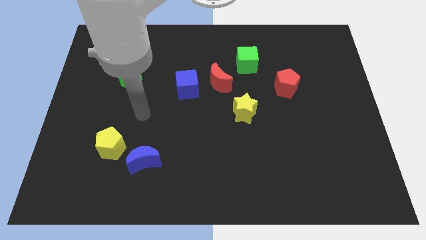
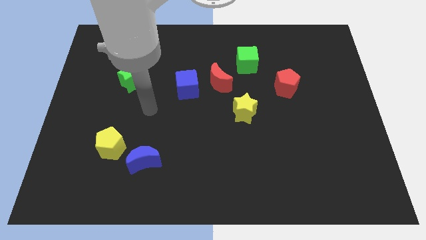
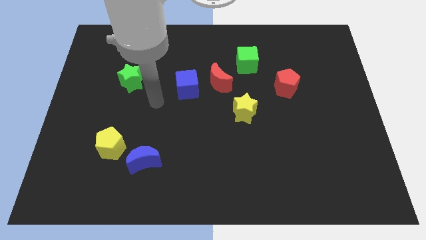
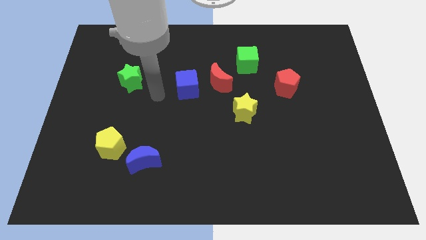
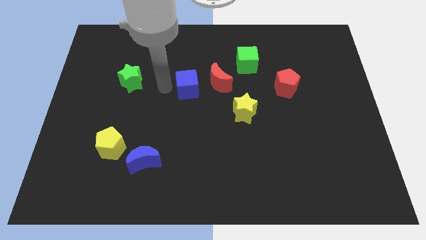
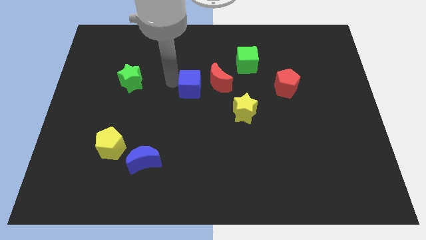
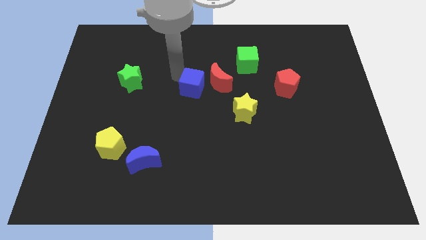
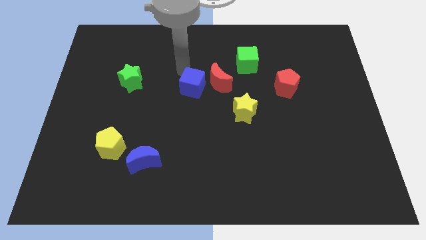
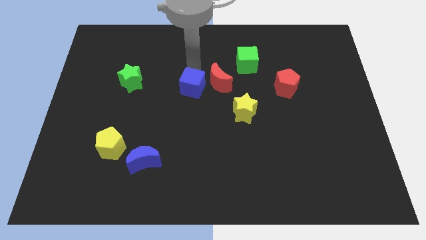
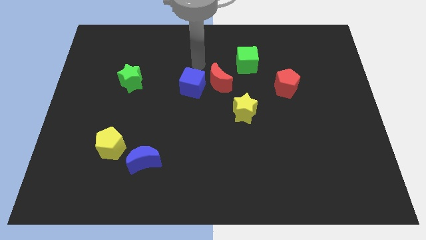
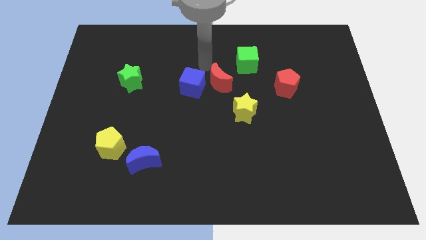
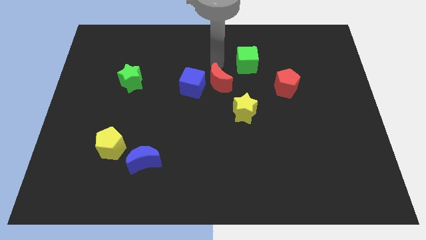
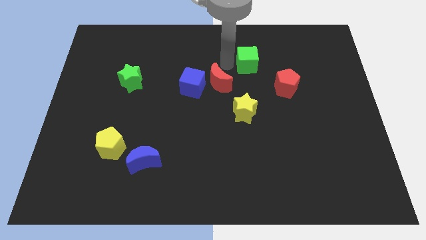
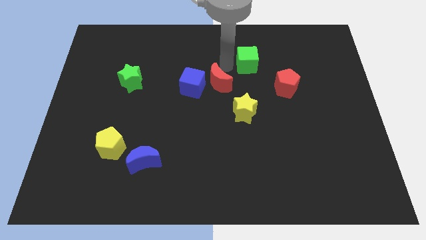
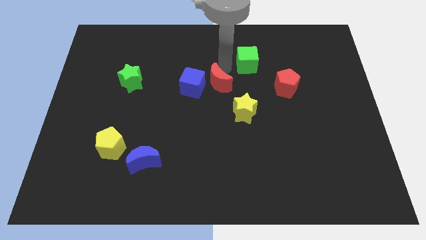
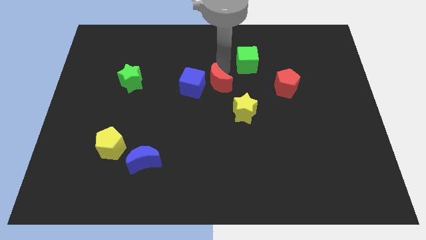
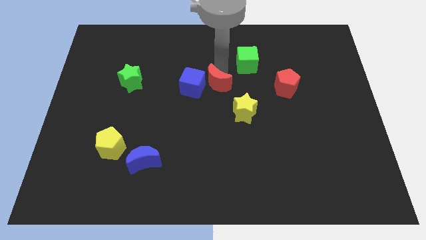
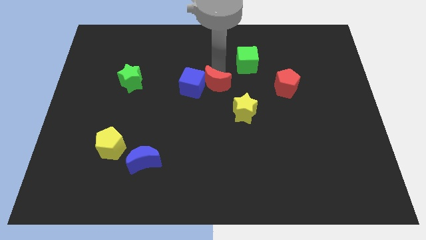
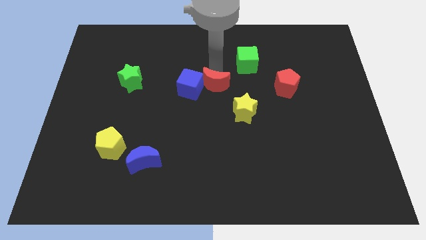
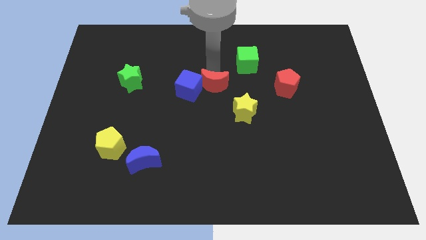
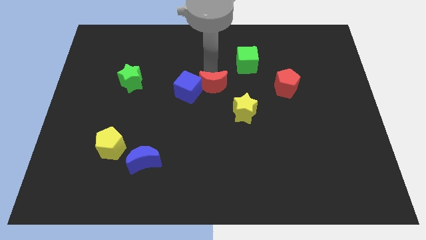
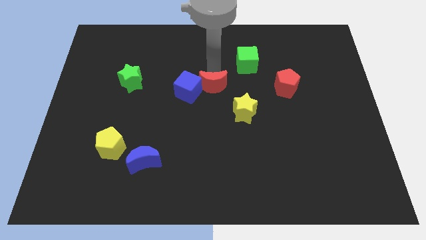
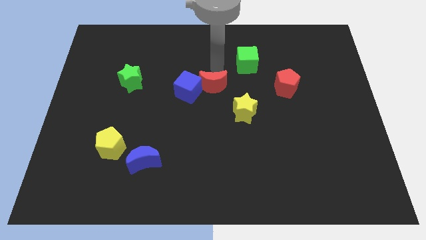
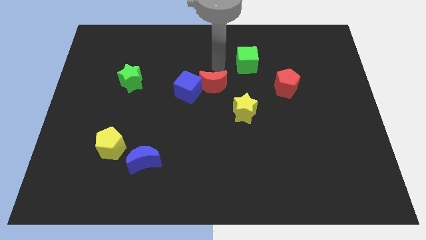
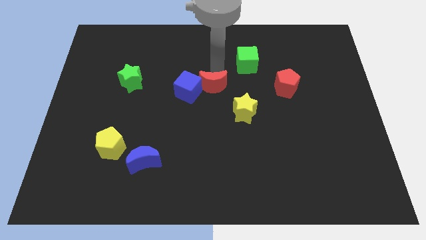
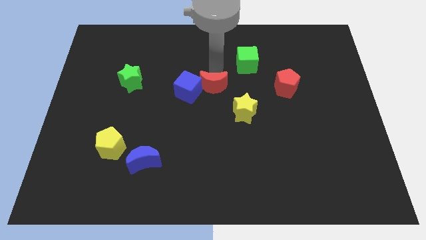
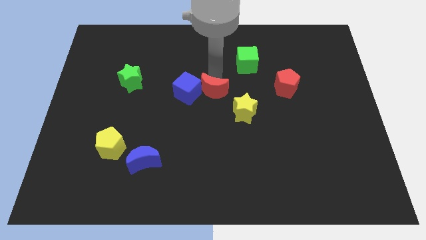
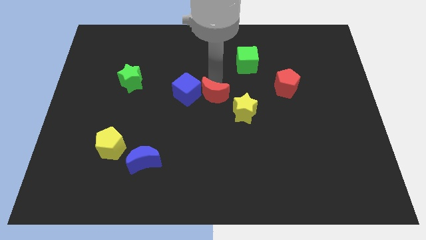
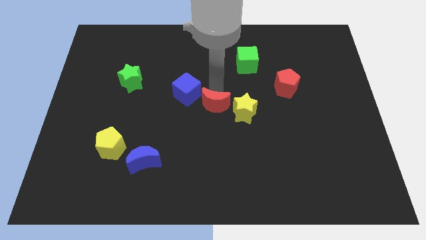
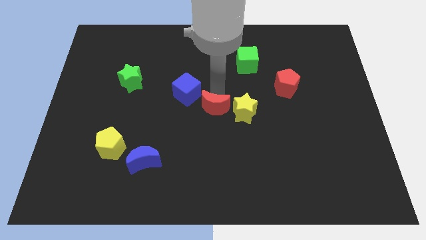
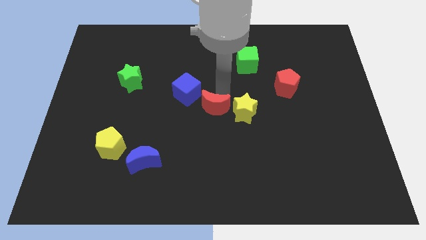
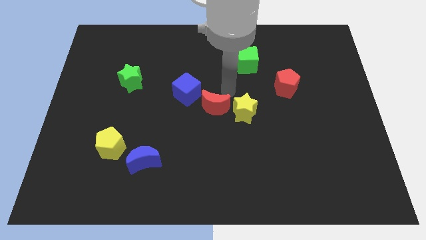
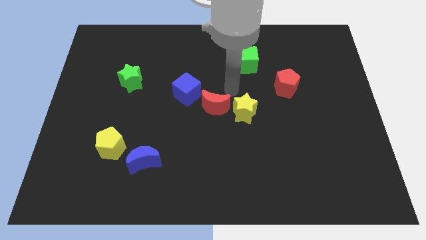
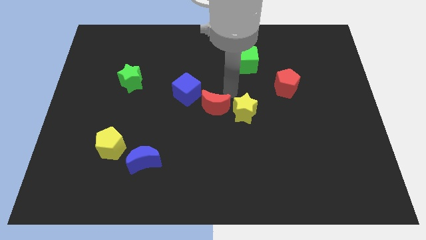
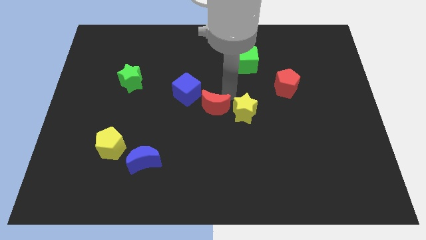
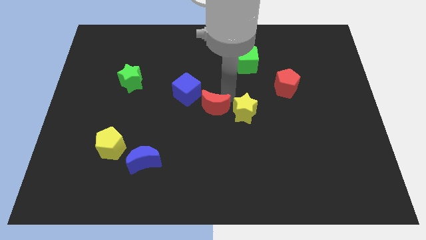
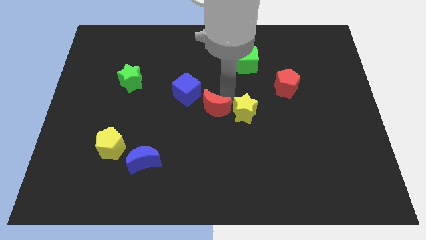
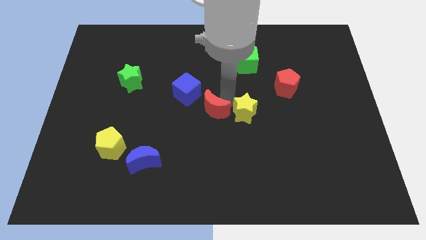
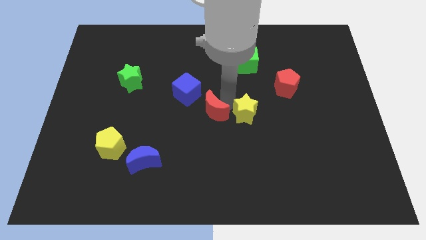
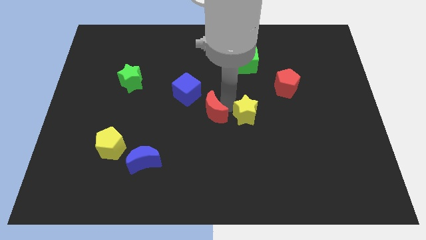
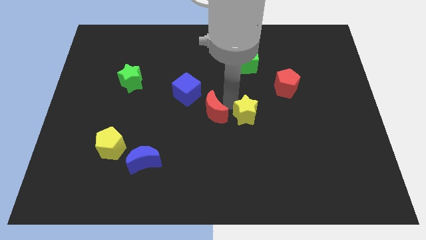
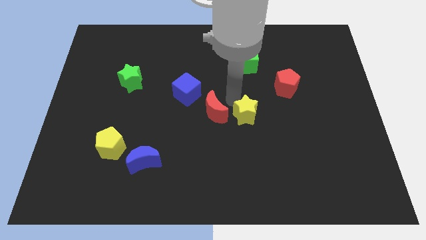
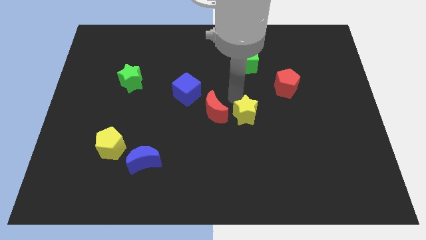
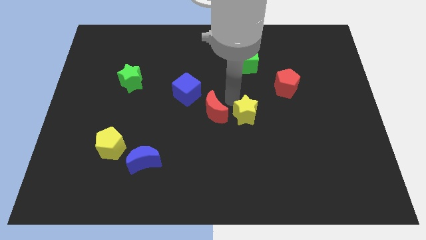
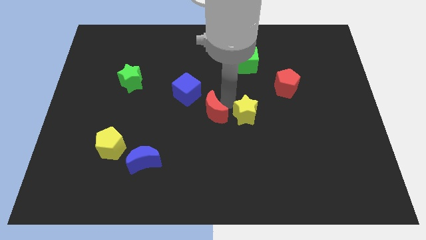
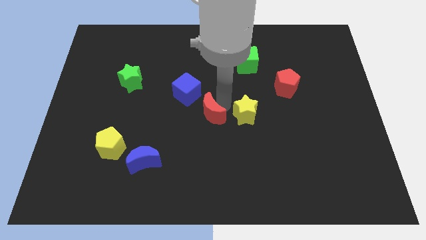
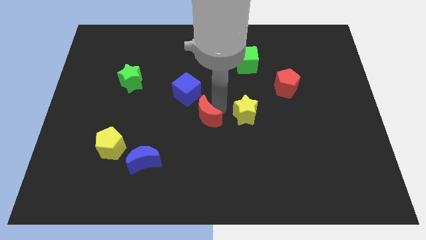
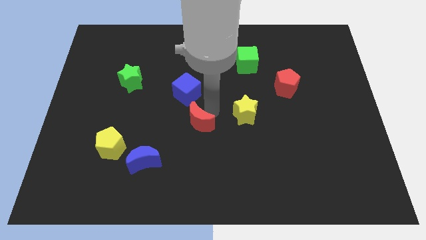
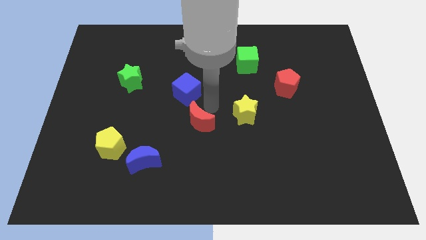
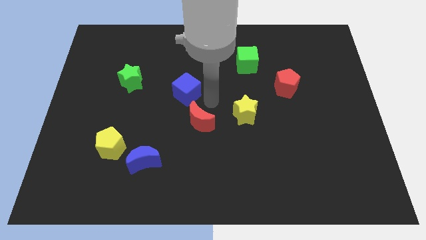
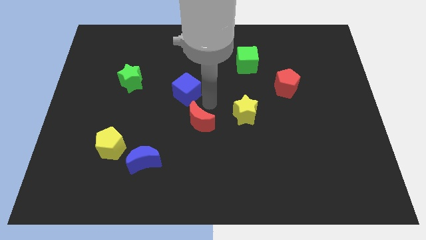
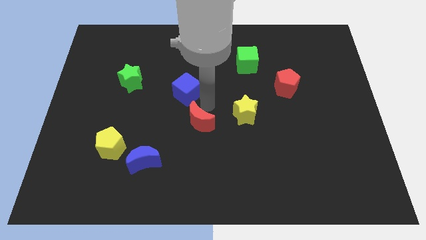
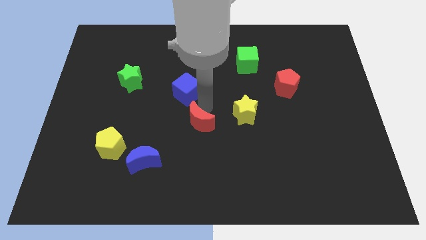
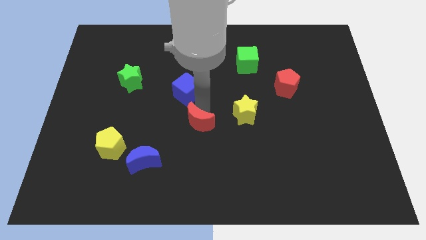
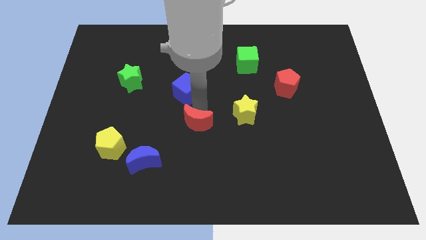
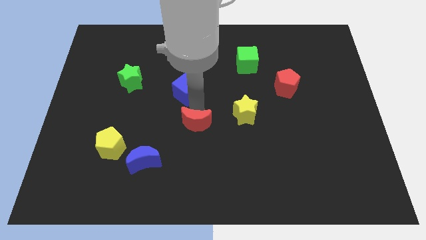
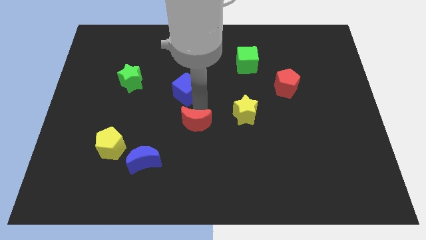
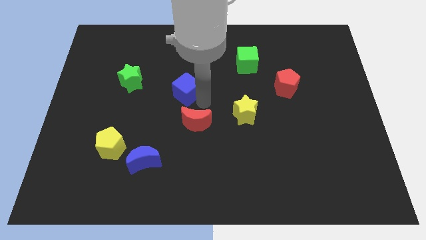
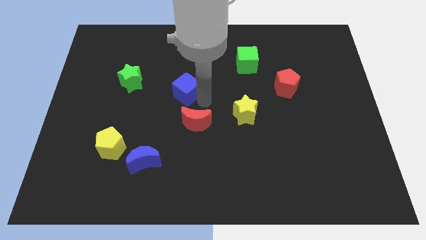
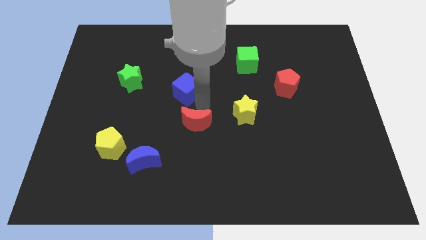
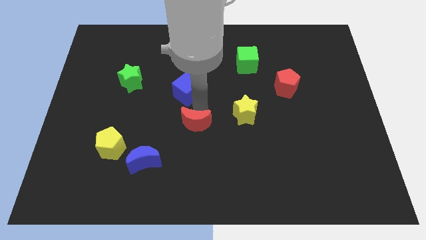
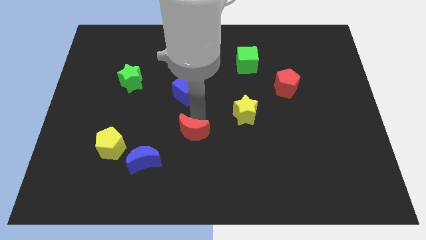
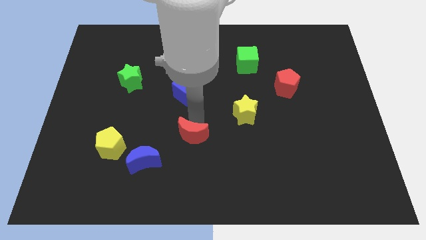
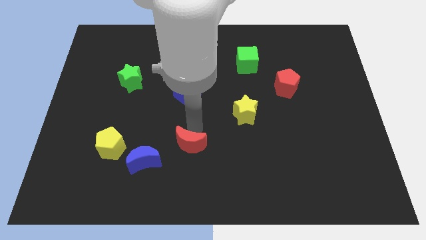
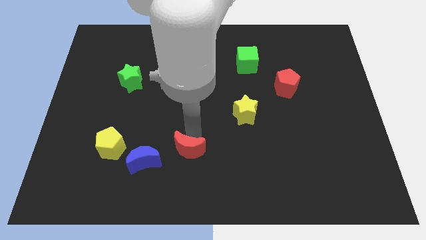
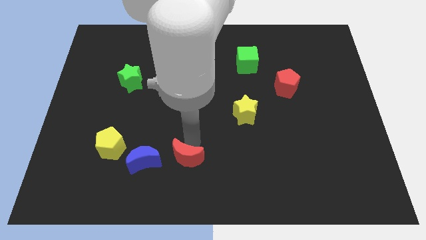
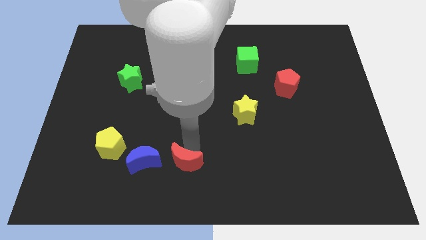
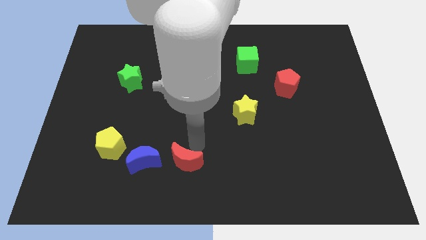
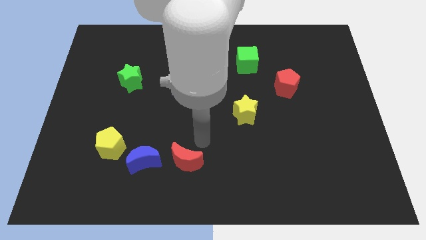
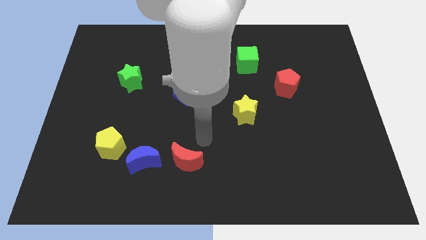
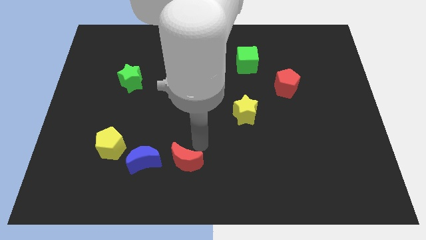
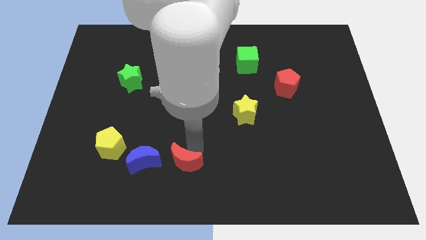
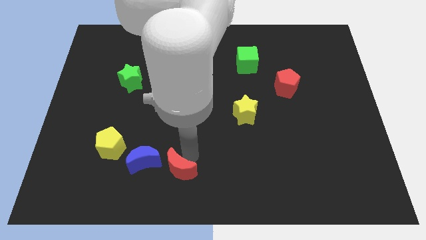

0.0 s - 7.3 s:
move the red moon to the bottom right of the blue moon
